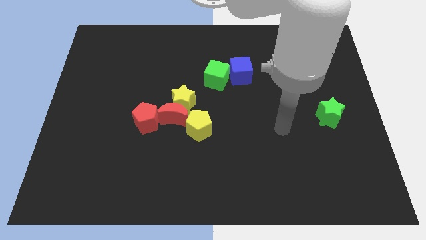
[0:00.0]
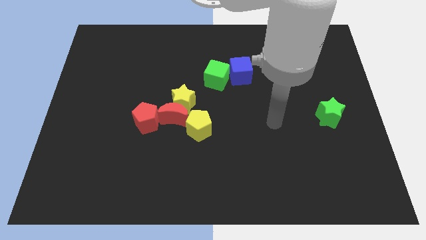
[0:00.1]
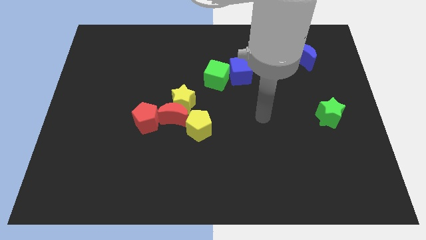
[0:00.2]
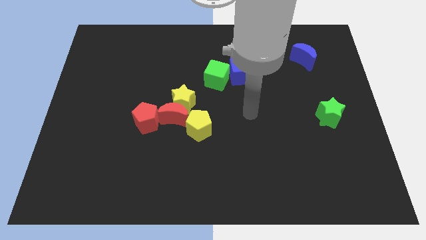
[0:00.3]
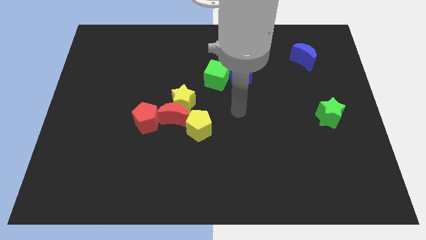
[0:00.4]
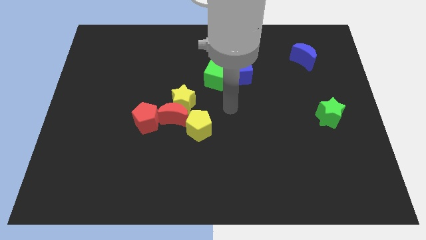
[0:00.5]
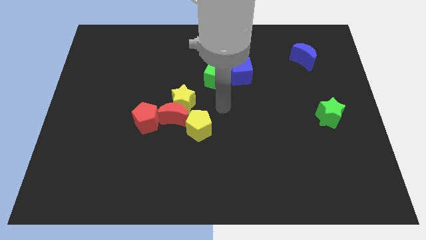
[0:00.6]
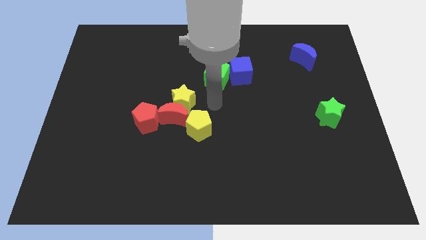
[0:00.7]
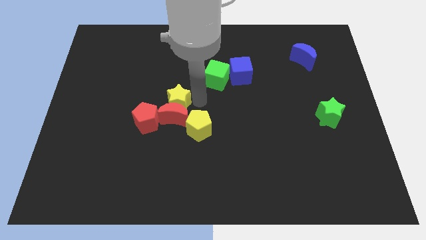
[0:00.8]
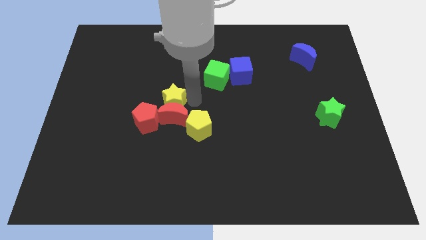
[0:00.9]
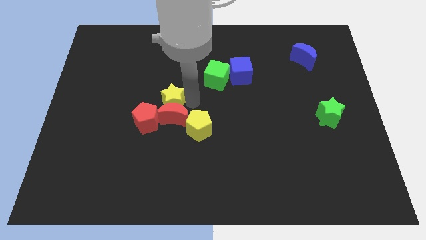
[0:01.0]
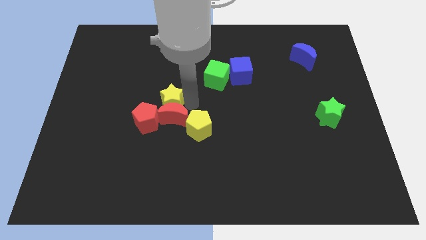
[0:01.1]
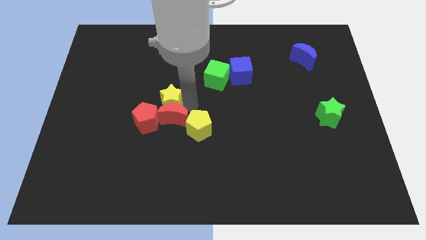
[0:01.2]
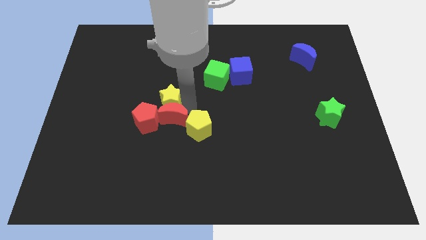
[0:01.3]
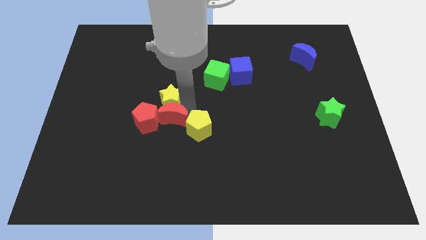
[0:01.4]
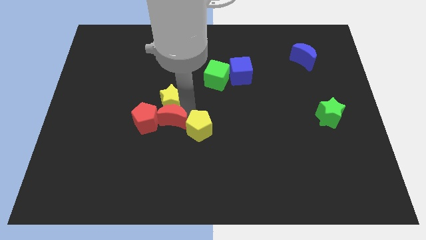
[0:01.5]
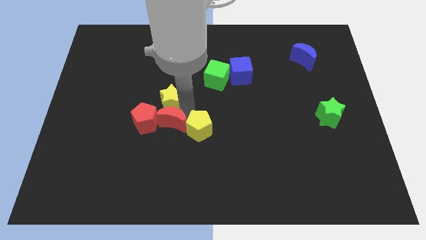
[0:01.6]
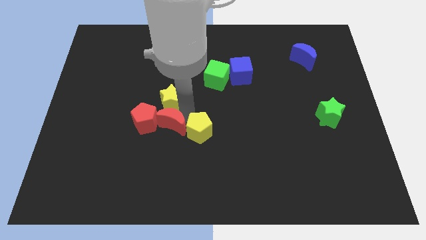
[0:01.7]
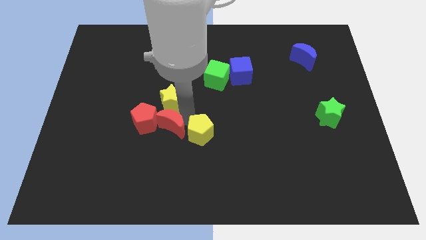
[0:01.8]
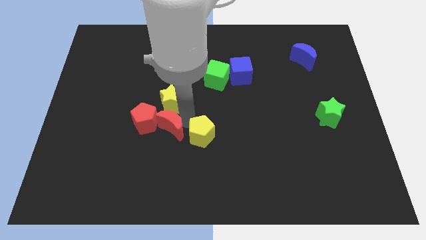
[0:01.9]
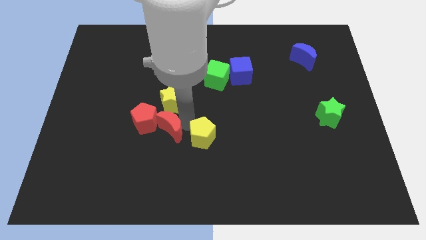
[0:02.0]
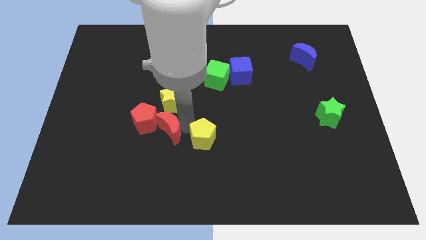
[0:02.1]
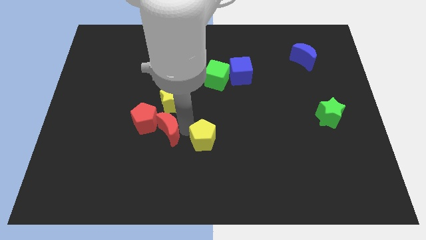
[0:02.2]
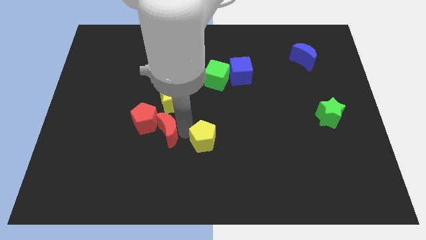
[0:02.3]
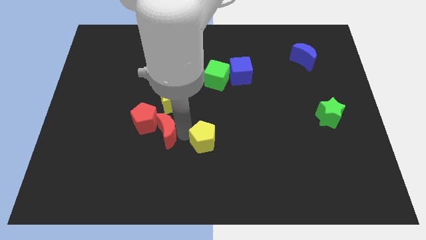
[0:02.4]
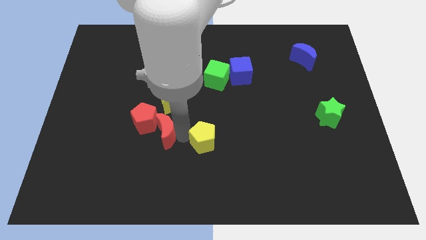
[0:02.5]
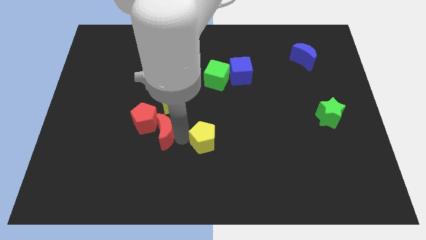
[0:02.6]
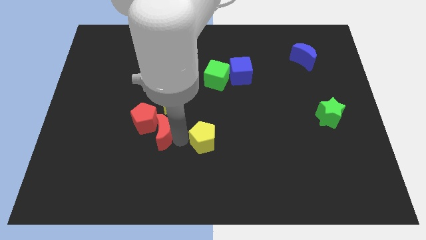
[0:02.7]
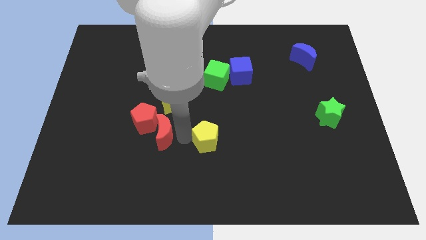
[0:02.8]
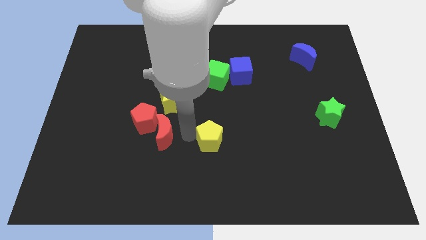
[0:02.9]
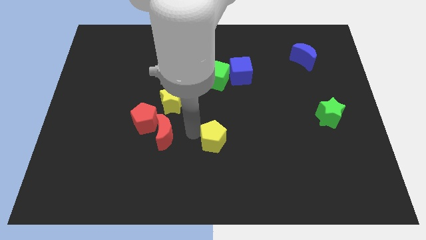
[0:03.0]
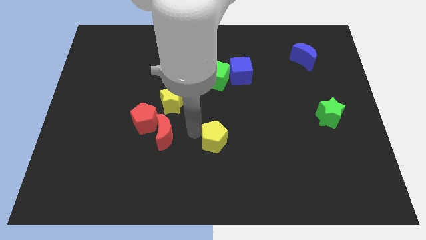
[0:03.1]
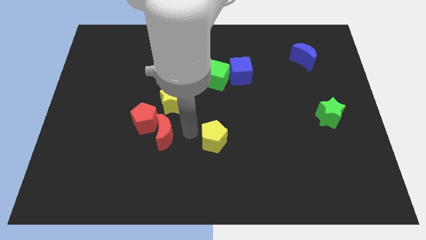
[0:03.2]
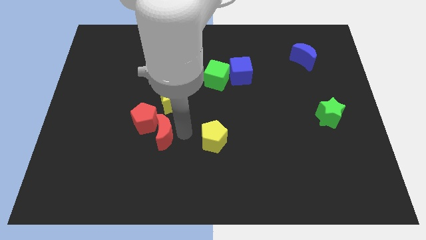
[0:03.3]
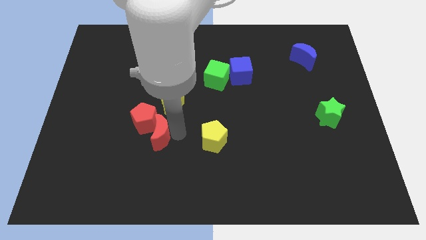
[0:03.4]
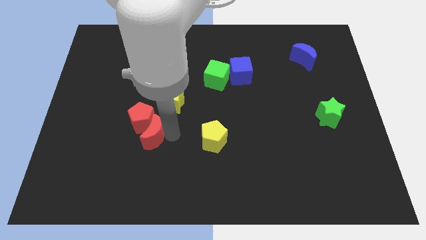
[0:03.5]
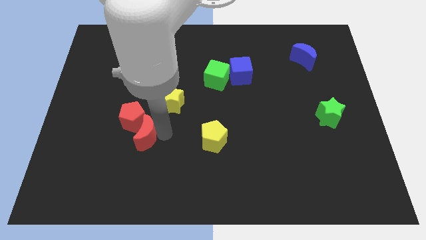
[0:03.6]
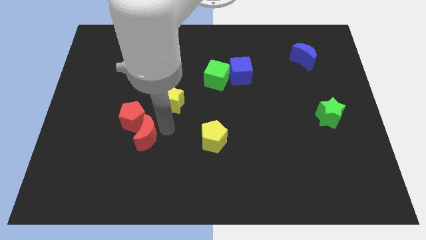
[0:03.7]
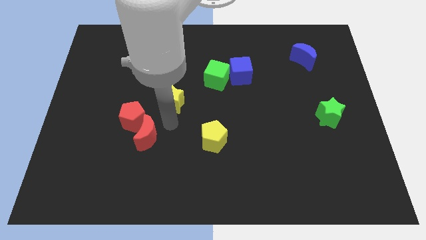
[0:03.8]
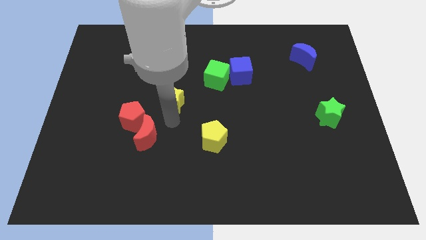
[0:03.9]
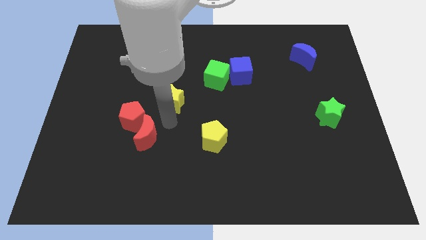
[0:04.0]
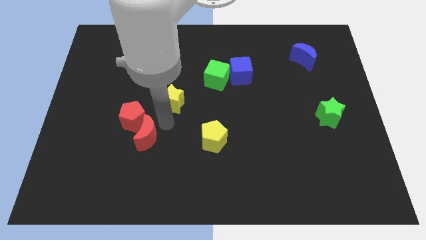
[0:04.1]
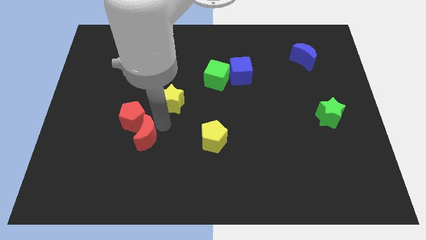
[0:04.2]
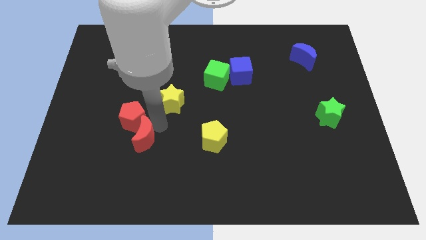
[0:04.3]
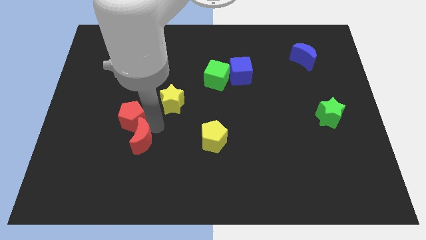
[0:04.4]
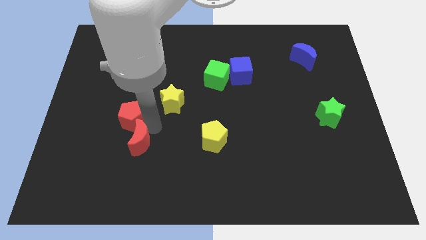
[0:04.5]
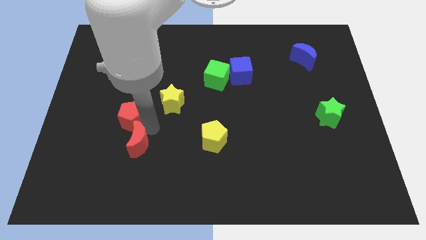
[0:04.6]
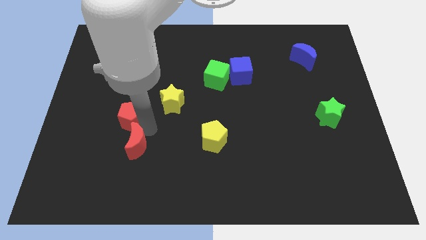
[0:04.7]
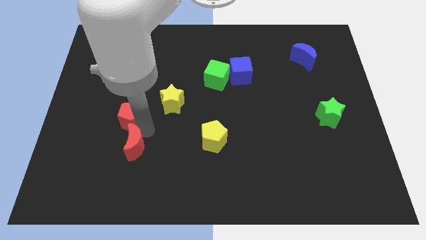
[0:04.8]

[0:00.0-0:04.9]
separate the red moon from the yellow star, yellow pentagon, and red pentagon

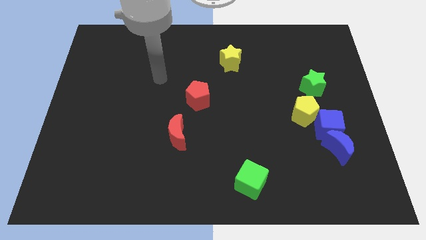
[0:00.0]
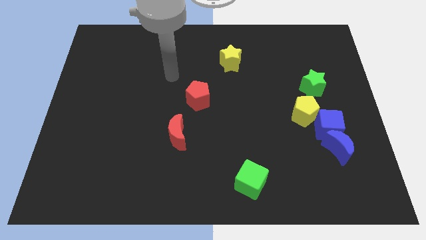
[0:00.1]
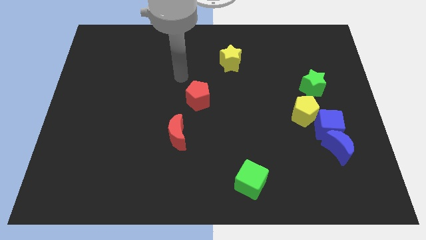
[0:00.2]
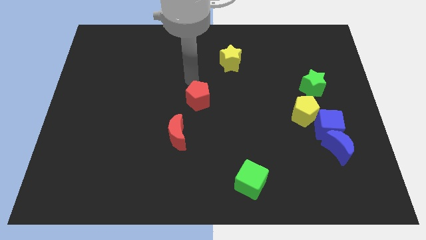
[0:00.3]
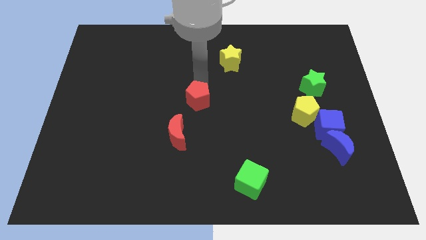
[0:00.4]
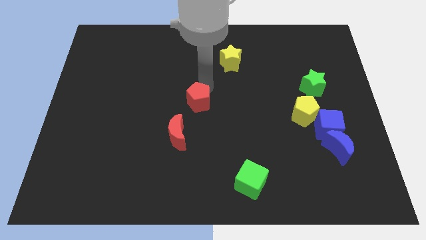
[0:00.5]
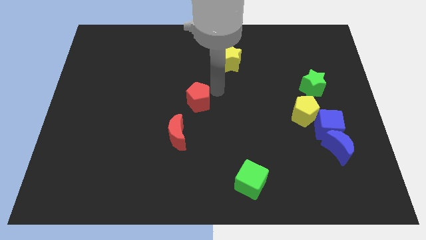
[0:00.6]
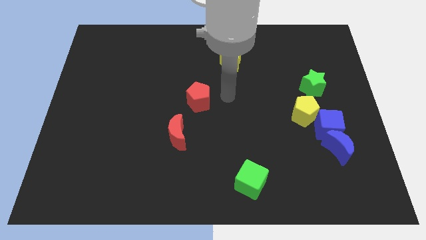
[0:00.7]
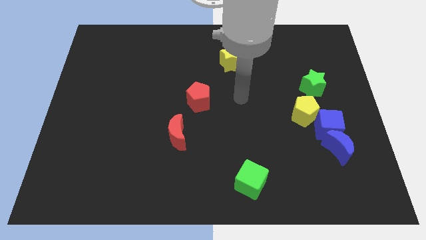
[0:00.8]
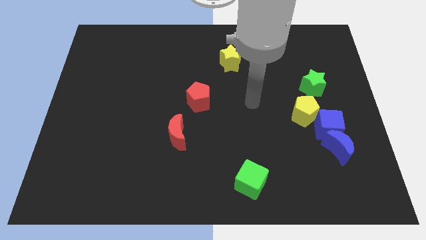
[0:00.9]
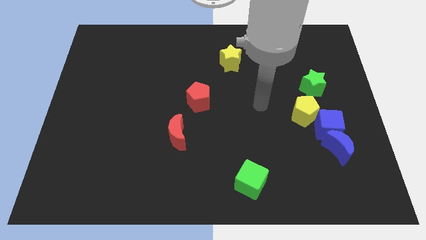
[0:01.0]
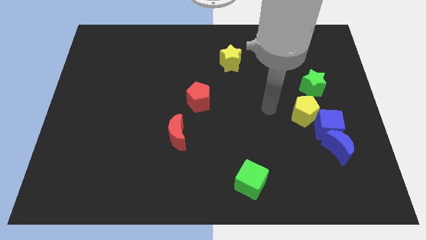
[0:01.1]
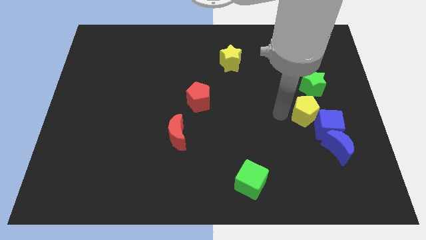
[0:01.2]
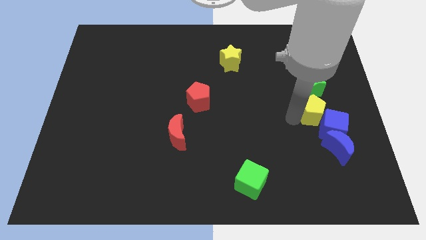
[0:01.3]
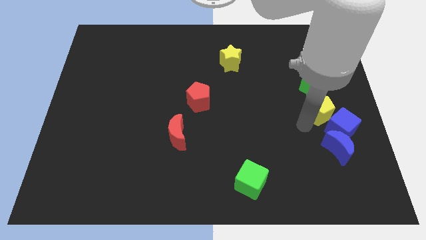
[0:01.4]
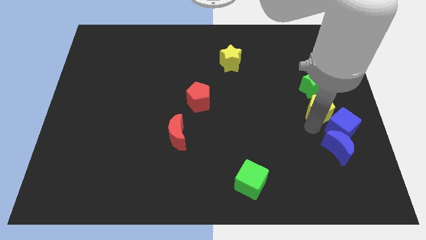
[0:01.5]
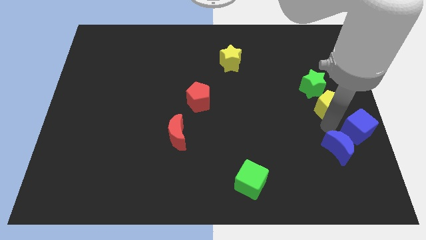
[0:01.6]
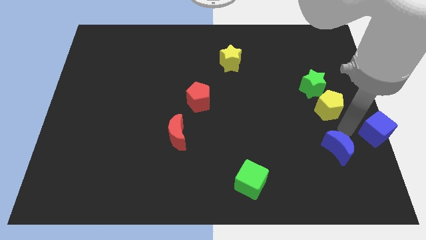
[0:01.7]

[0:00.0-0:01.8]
move the blue moon away from the blue cube

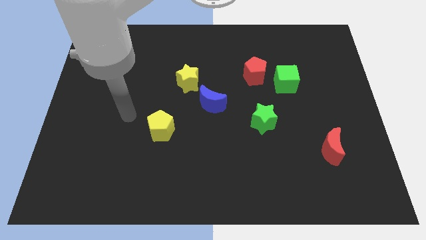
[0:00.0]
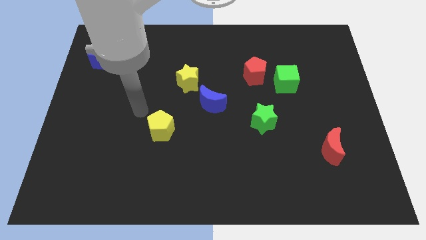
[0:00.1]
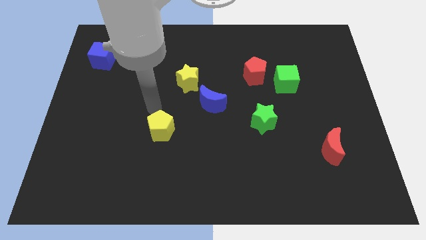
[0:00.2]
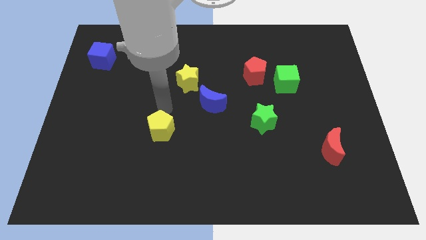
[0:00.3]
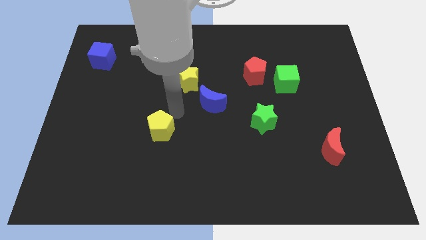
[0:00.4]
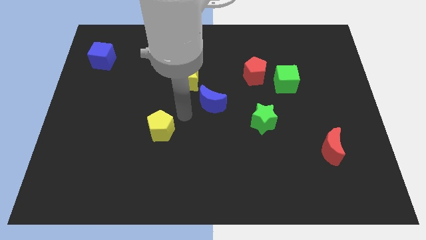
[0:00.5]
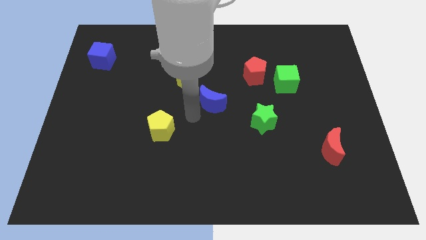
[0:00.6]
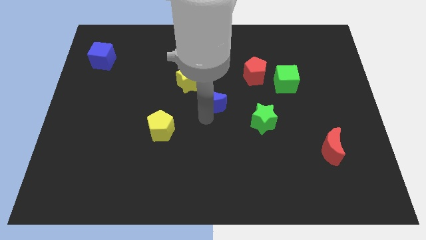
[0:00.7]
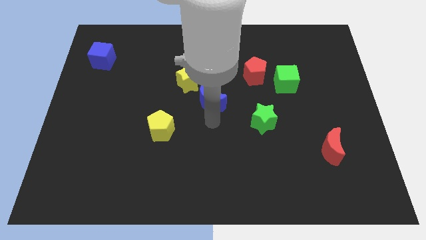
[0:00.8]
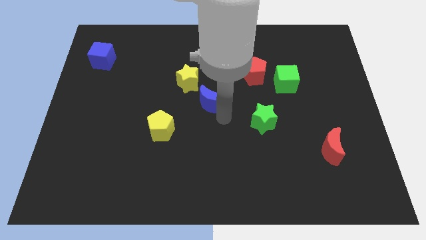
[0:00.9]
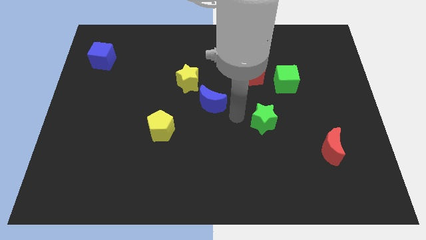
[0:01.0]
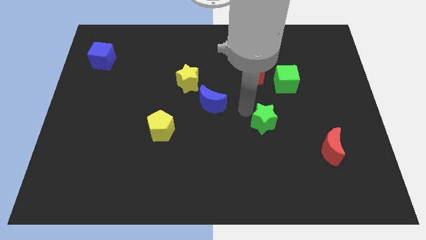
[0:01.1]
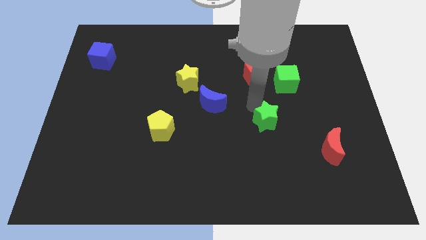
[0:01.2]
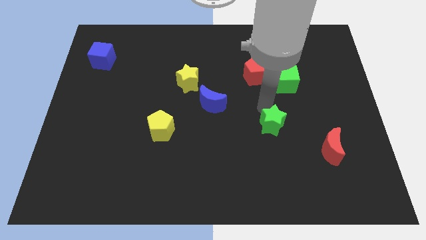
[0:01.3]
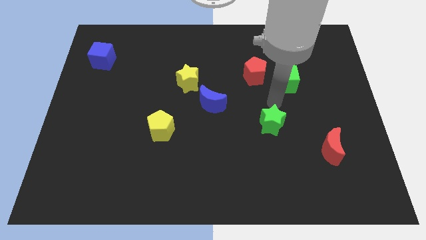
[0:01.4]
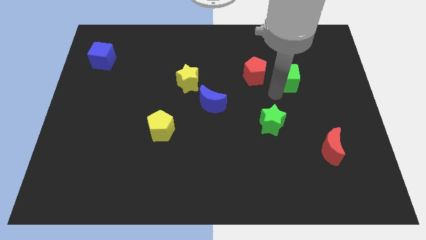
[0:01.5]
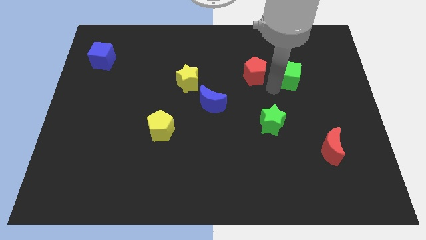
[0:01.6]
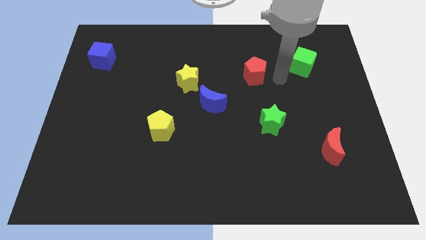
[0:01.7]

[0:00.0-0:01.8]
separate the red pentagon from the green cube

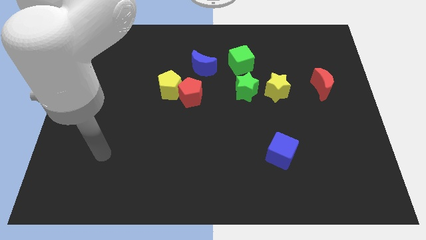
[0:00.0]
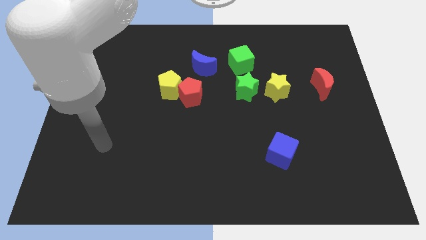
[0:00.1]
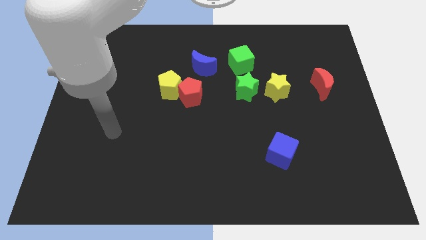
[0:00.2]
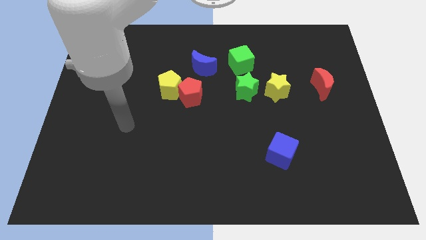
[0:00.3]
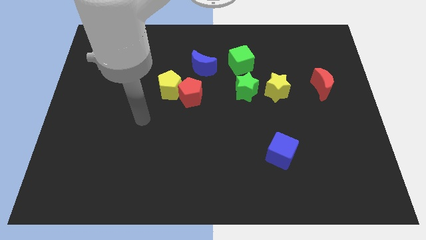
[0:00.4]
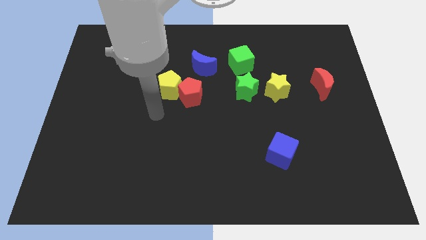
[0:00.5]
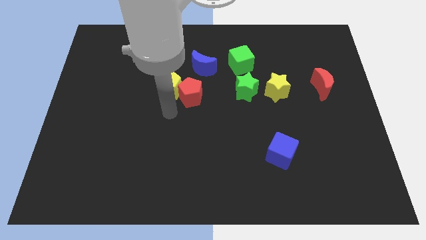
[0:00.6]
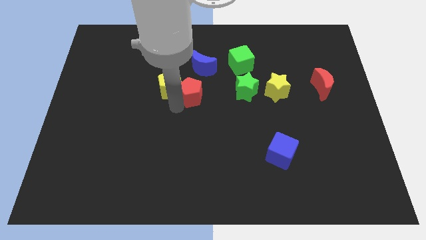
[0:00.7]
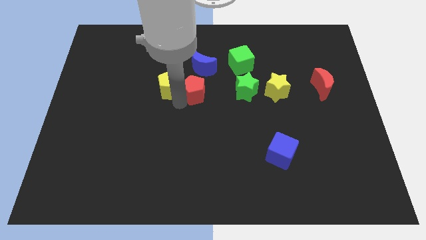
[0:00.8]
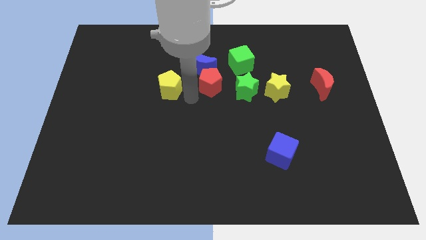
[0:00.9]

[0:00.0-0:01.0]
move the yellow pentagon away from the red pentagon

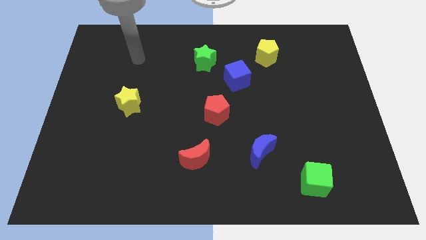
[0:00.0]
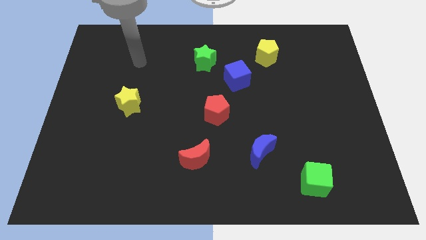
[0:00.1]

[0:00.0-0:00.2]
separate the blue cube from the green star
